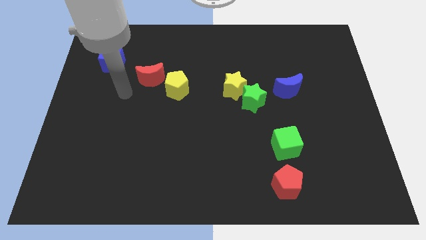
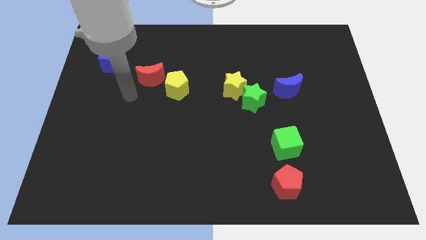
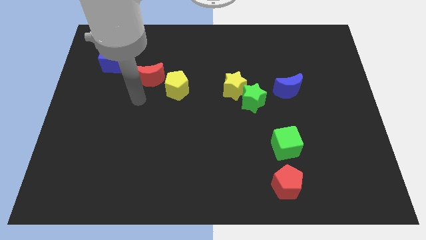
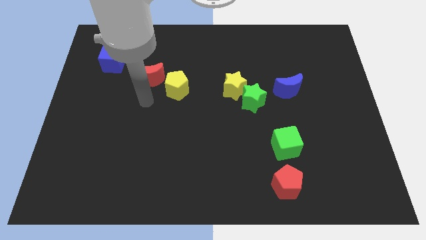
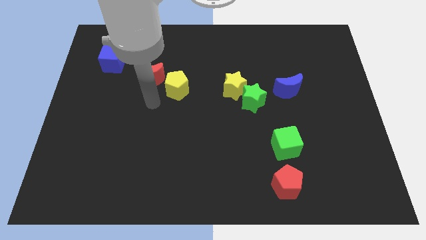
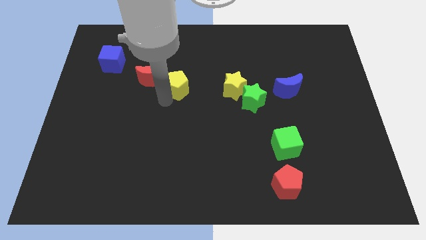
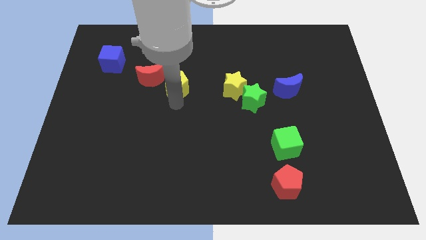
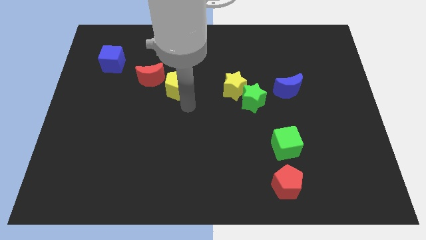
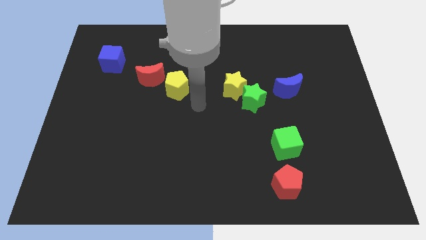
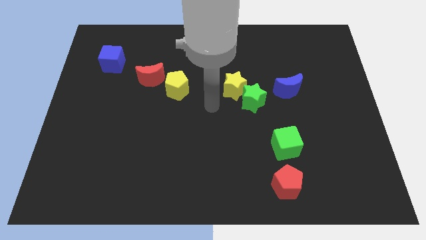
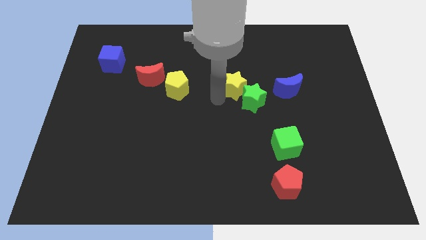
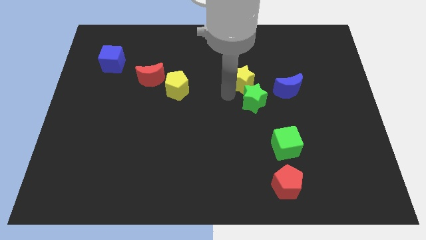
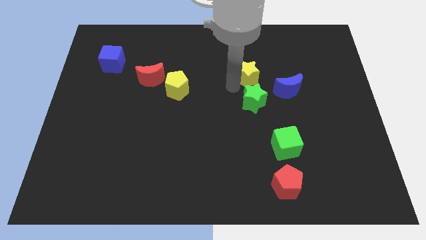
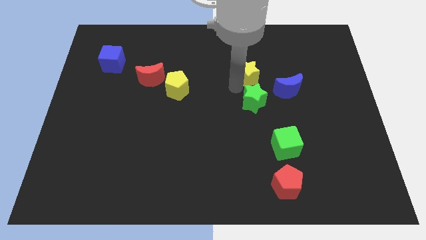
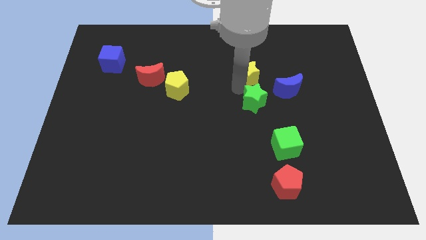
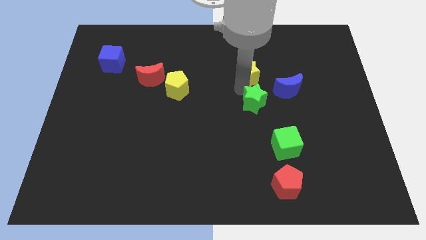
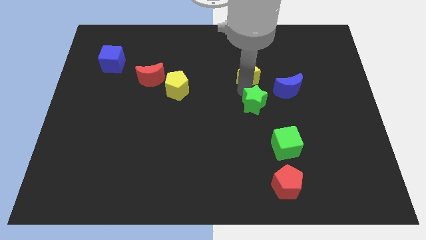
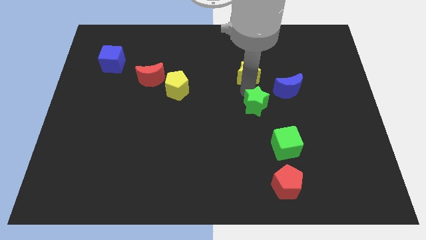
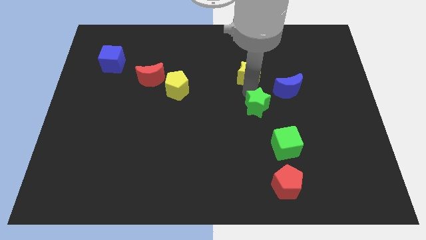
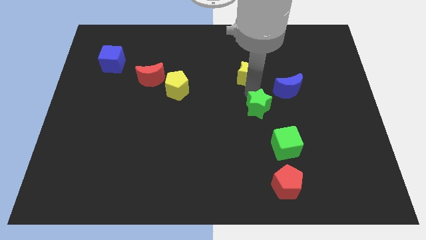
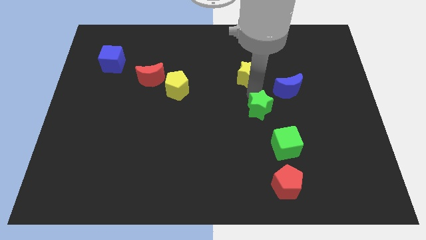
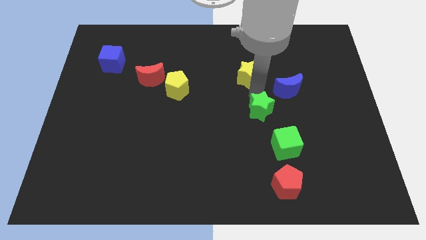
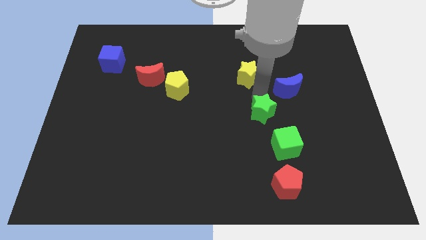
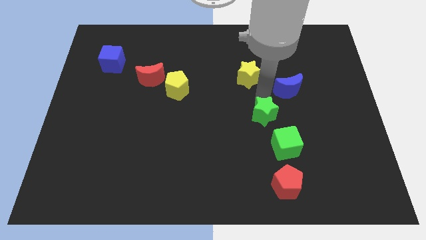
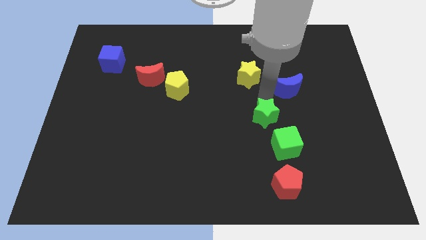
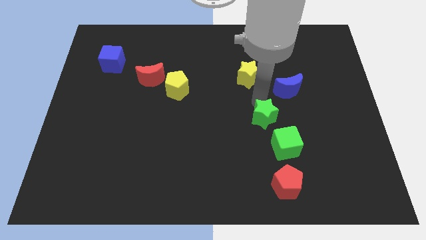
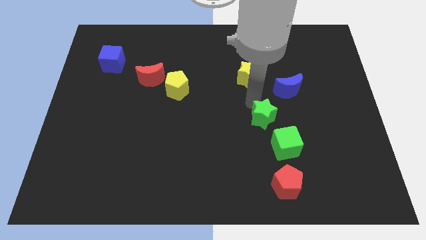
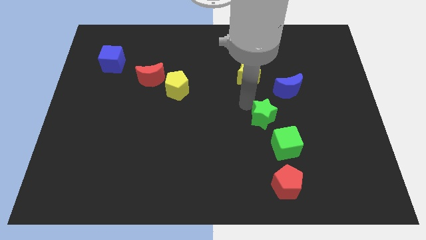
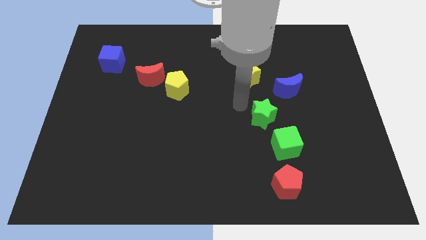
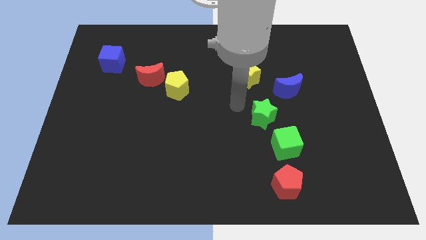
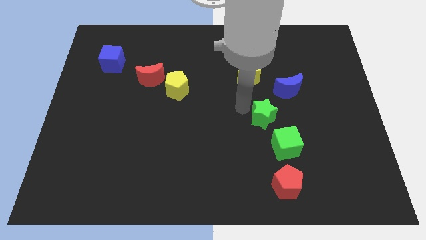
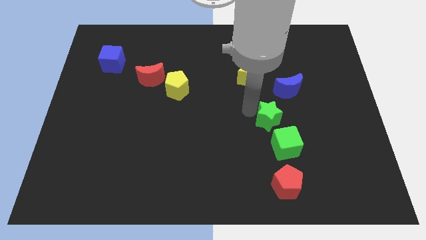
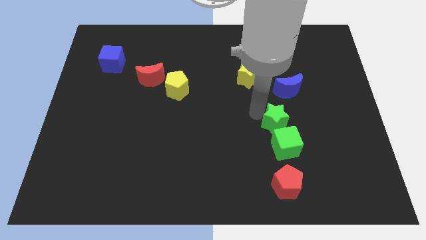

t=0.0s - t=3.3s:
slightly move the green star downwards and right diagonally

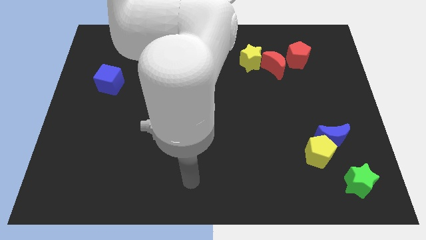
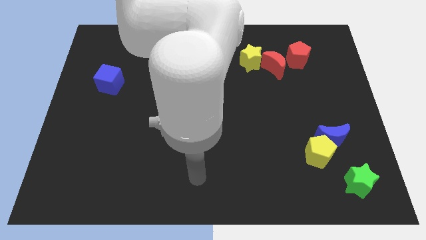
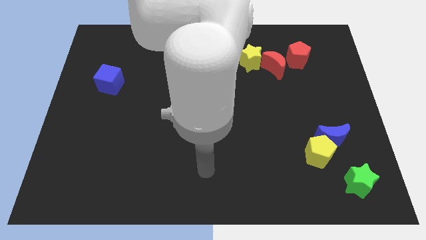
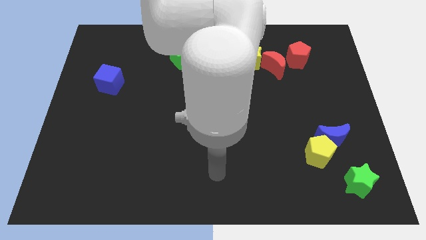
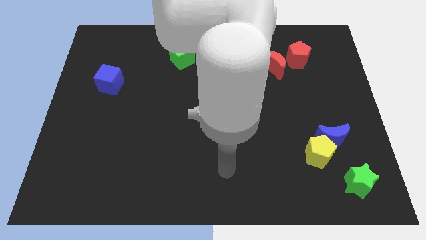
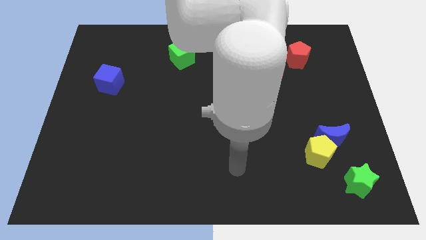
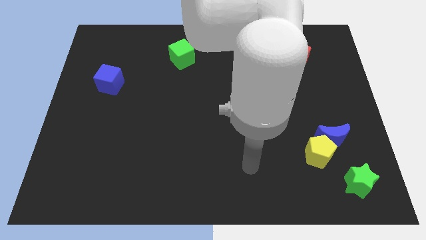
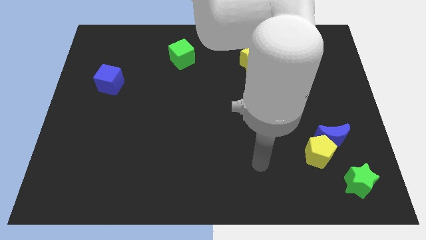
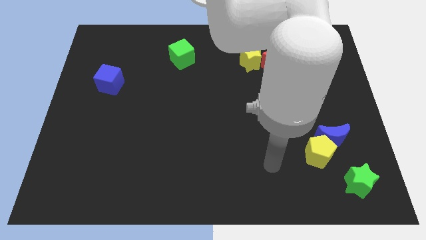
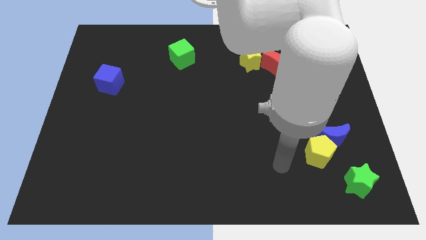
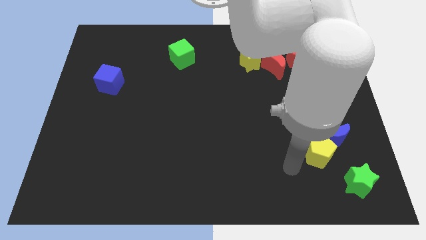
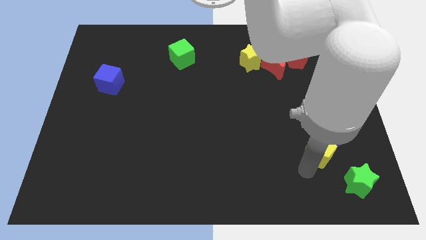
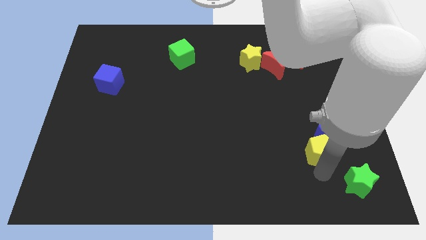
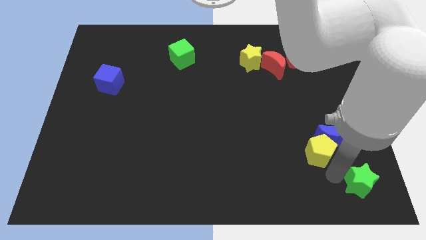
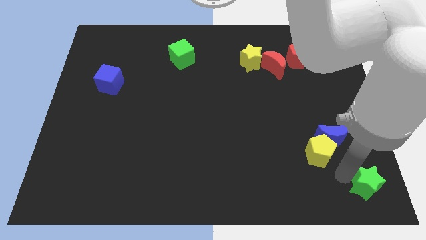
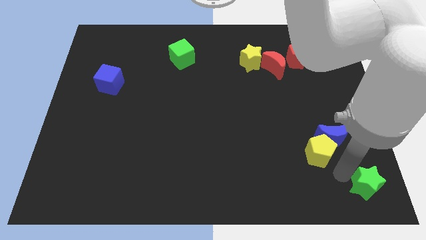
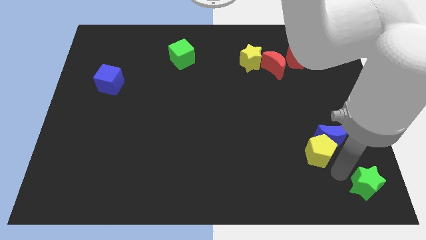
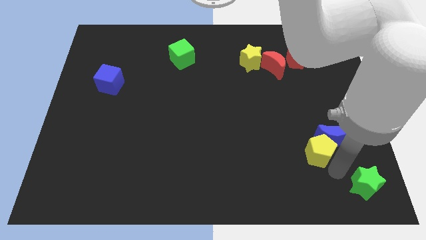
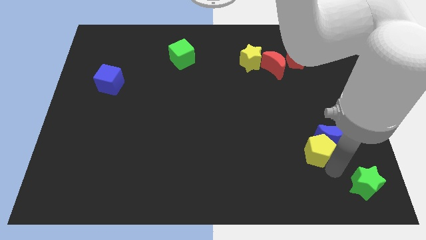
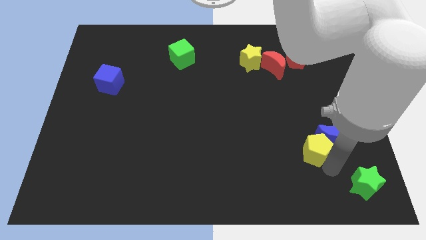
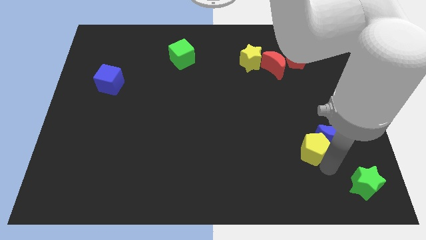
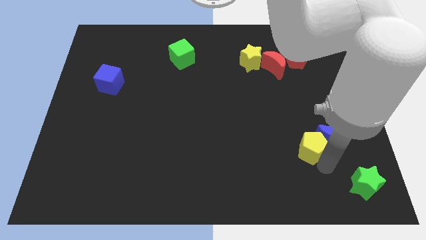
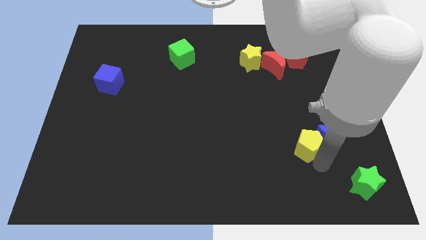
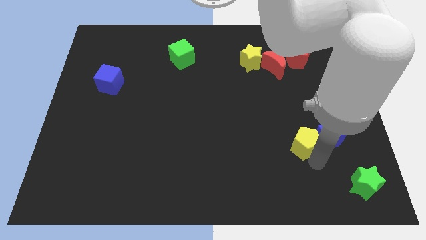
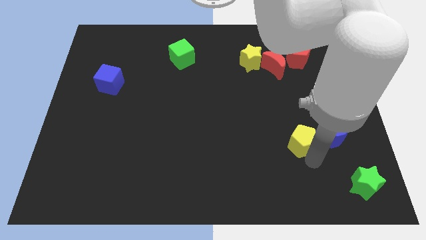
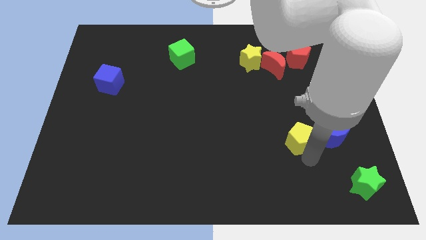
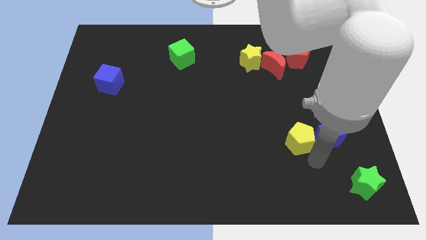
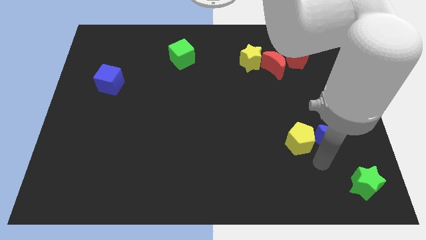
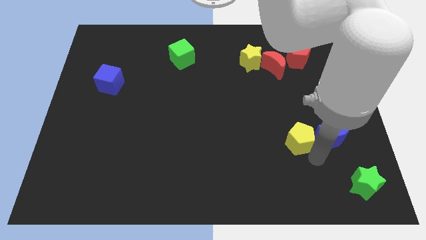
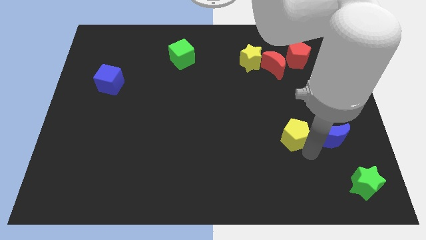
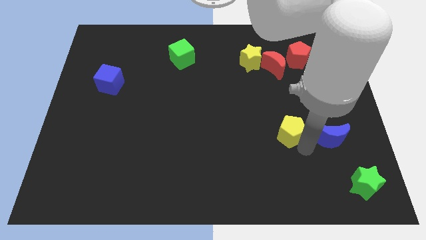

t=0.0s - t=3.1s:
slightly push the yellow pentagon up and to the left diagonally

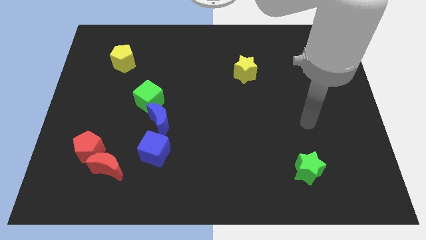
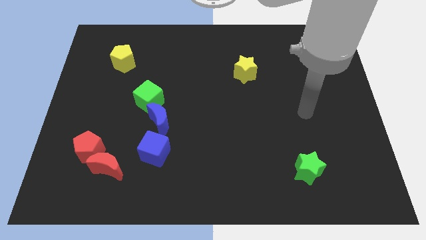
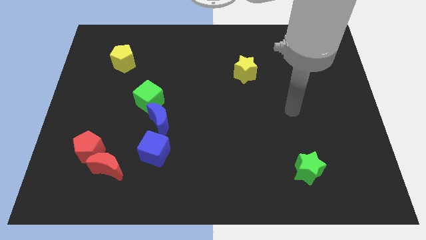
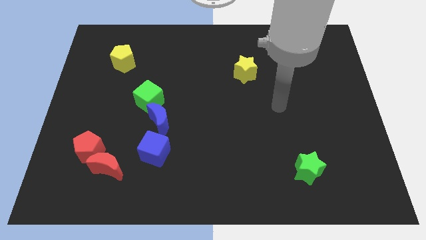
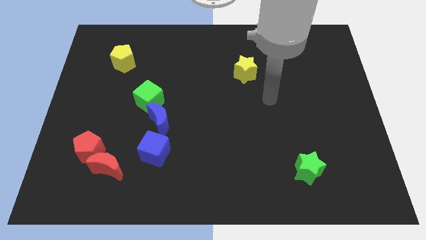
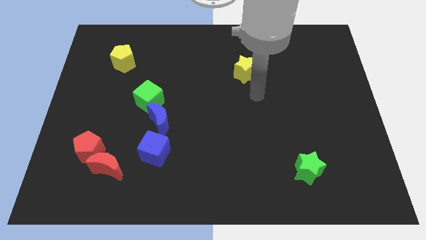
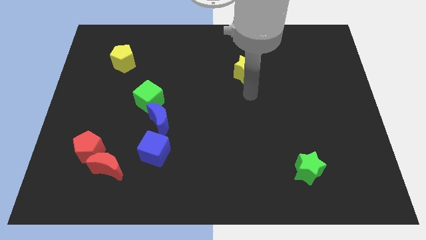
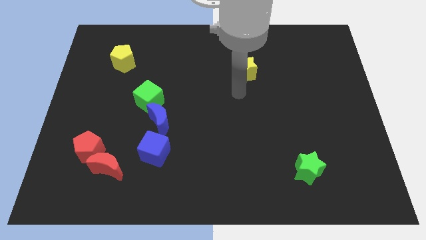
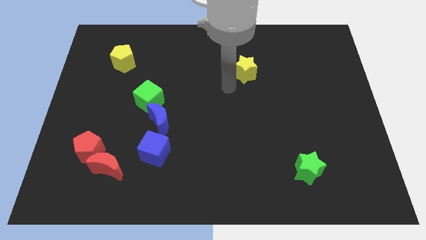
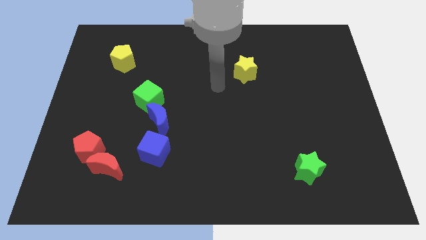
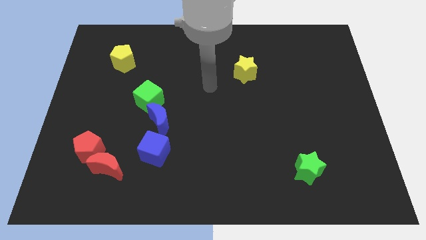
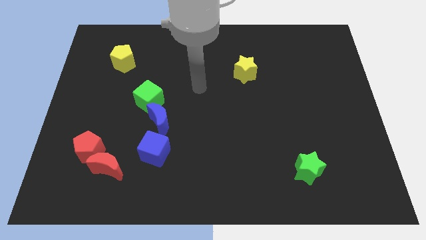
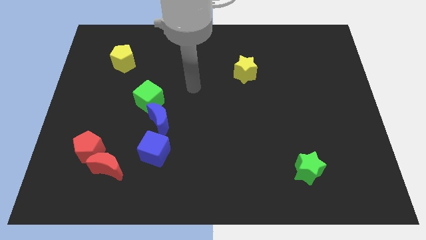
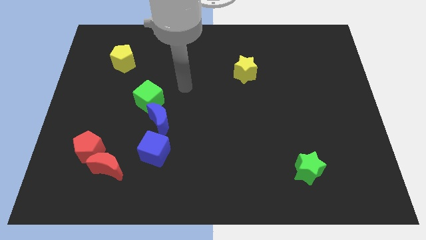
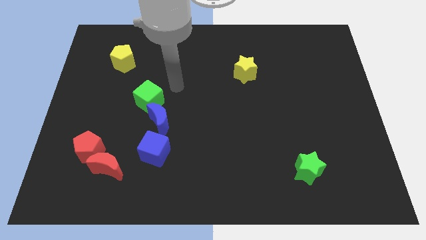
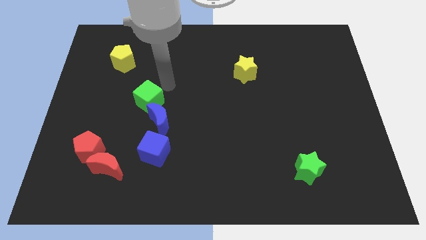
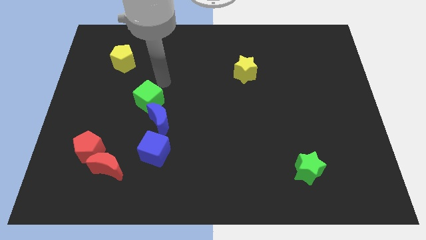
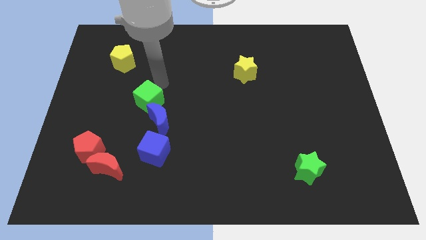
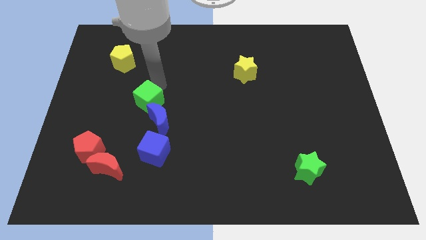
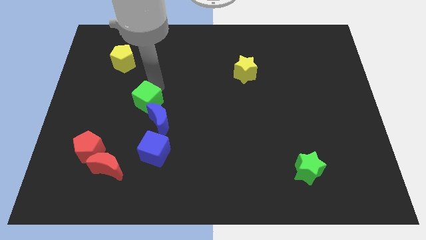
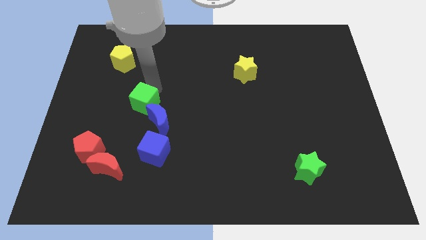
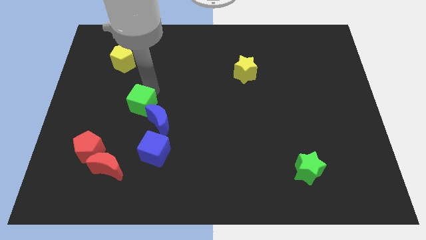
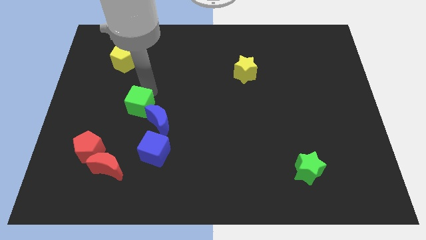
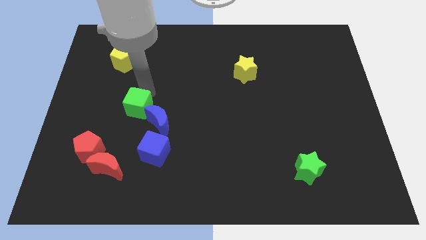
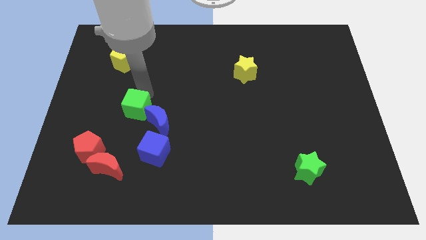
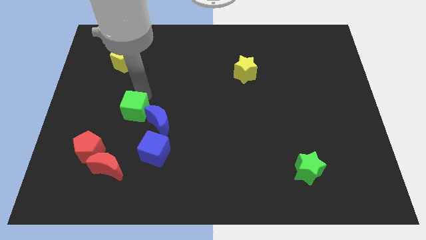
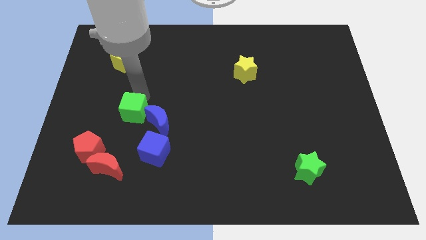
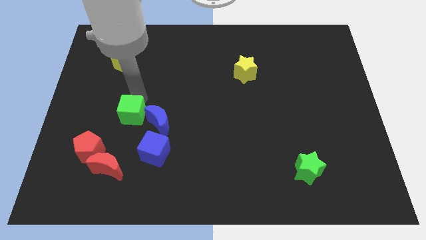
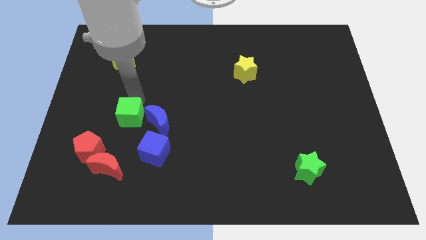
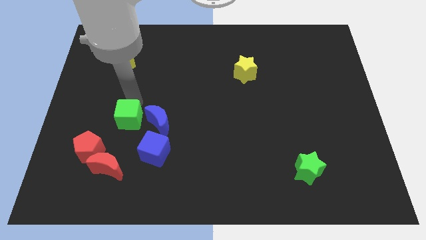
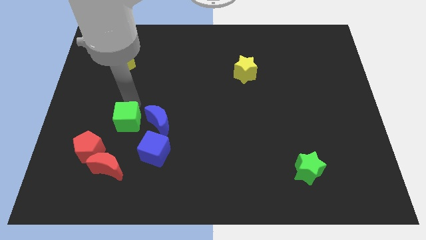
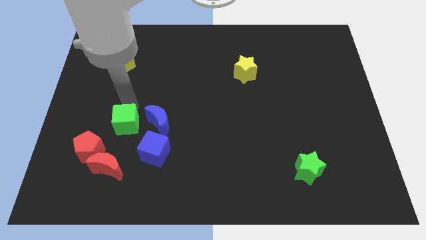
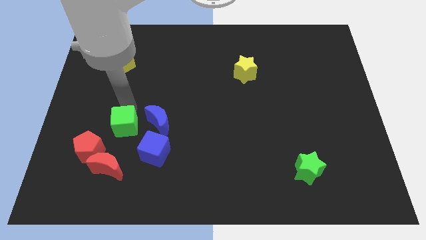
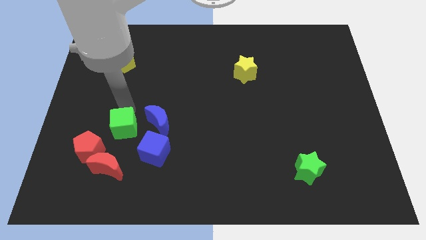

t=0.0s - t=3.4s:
slightly push the green cube downwards
